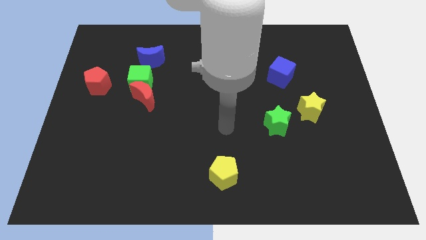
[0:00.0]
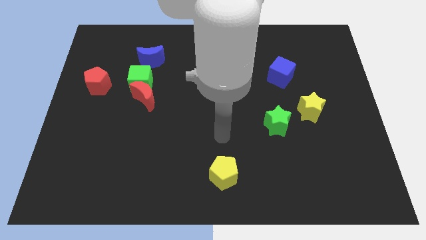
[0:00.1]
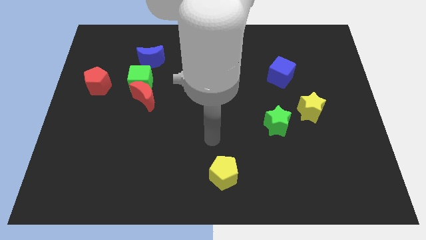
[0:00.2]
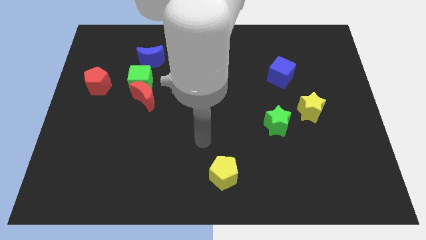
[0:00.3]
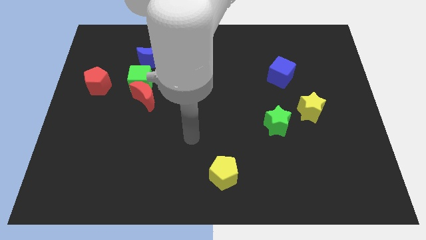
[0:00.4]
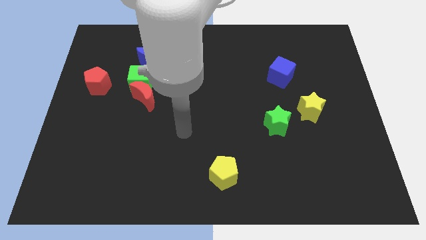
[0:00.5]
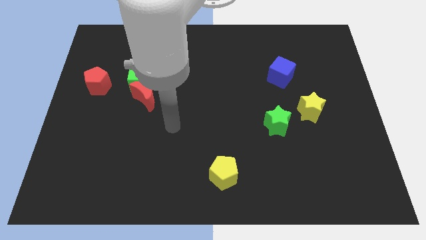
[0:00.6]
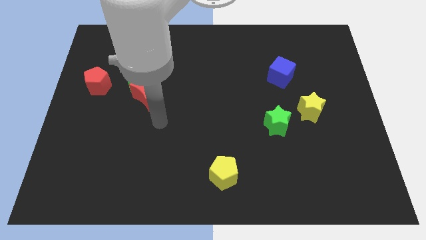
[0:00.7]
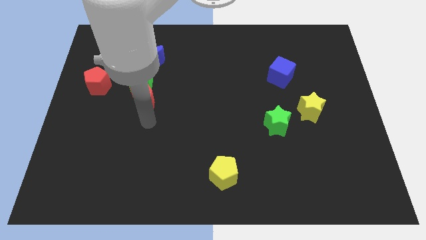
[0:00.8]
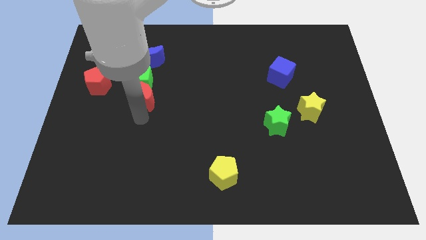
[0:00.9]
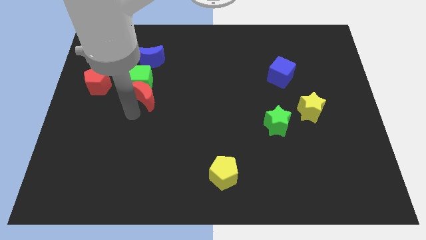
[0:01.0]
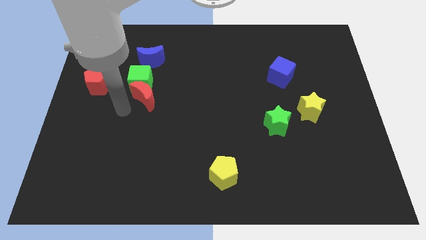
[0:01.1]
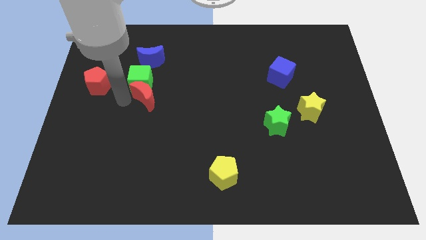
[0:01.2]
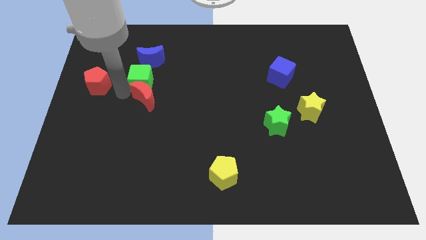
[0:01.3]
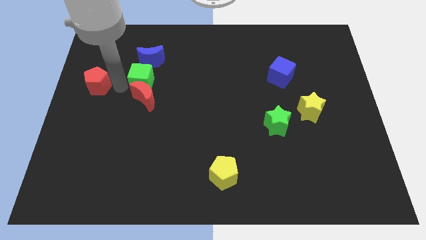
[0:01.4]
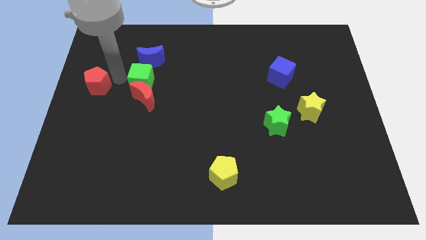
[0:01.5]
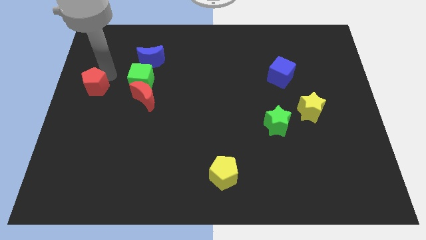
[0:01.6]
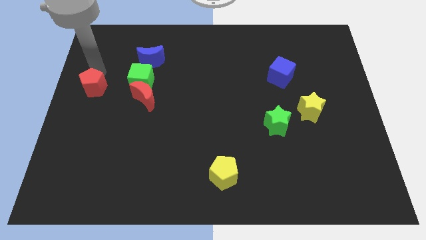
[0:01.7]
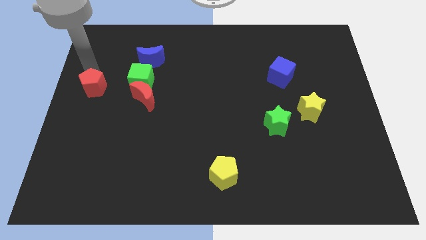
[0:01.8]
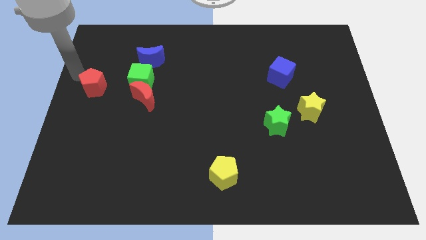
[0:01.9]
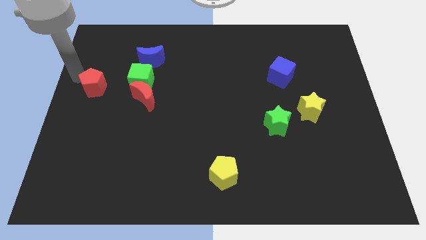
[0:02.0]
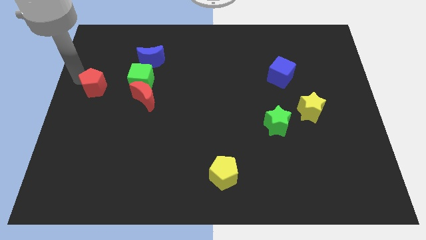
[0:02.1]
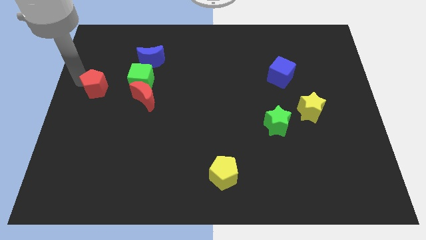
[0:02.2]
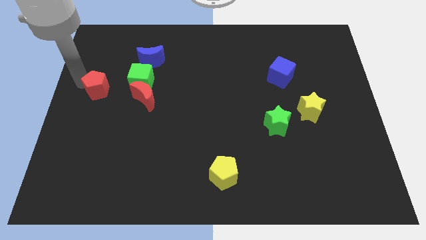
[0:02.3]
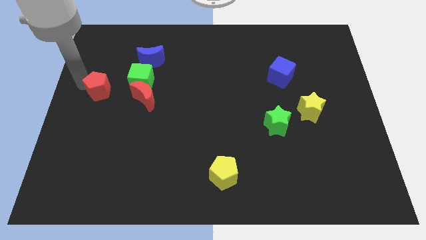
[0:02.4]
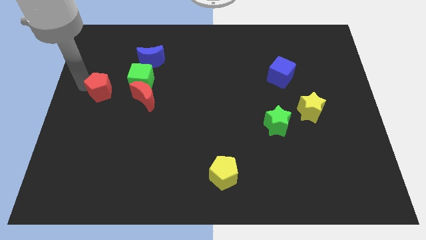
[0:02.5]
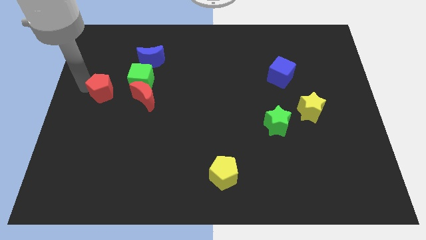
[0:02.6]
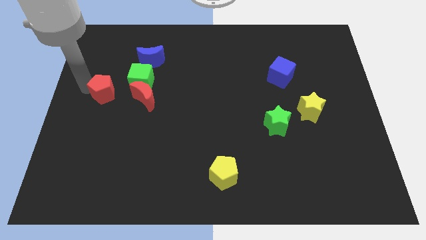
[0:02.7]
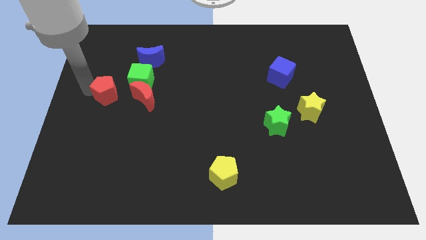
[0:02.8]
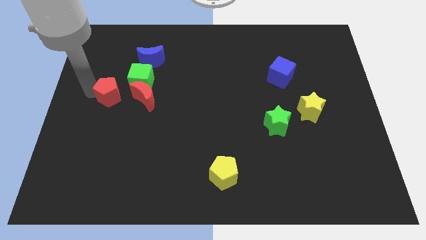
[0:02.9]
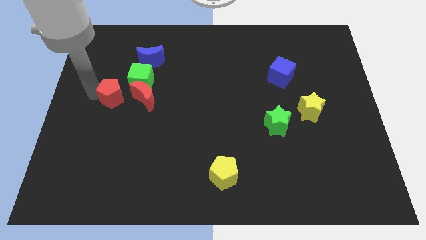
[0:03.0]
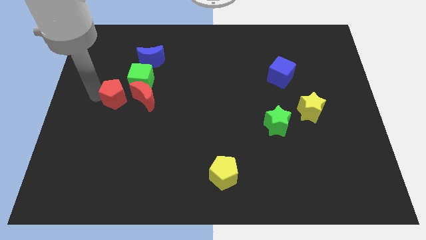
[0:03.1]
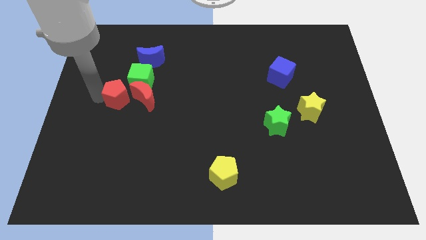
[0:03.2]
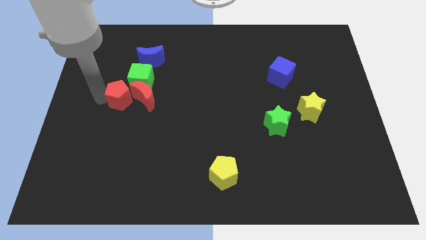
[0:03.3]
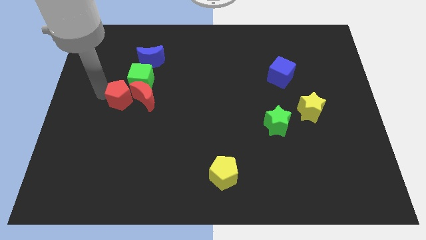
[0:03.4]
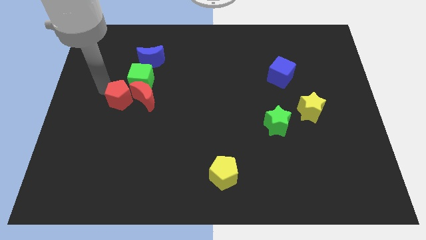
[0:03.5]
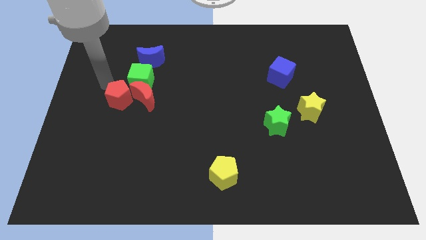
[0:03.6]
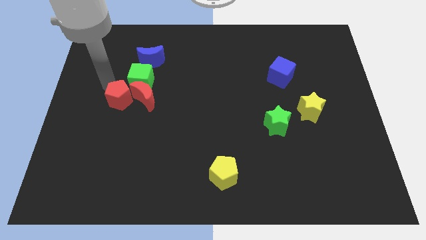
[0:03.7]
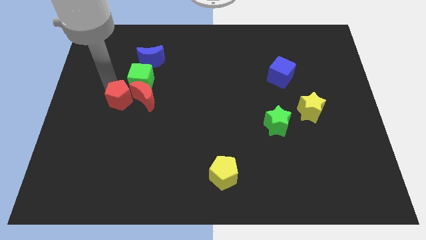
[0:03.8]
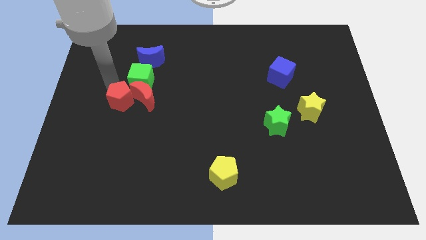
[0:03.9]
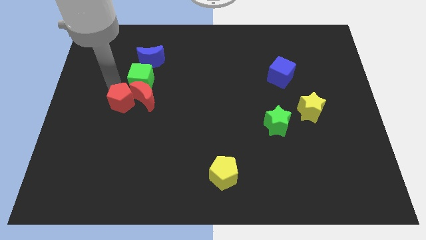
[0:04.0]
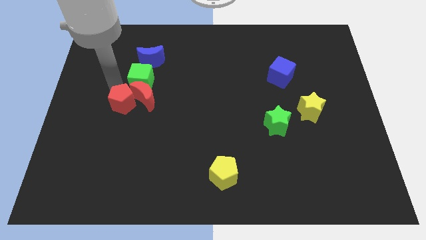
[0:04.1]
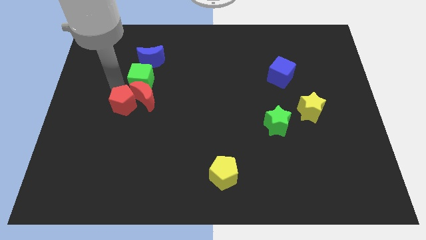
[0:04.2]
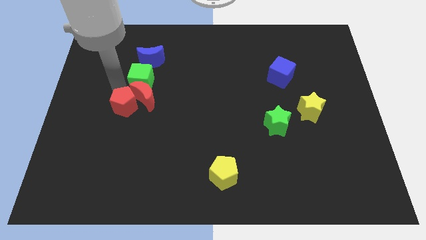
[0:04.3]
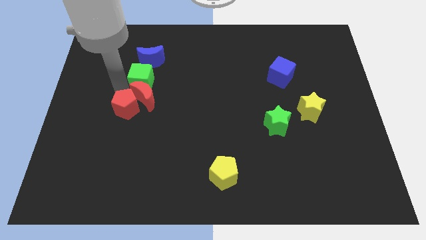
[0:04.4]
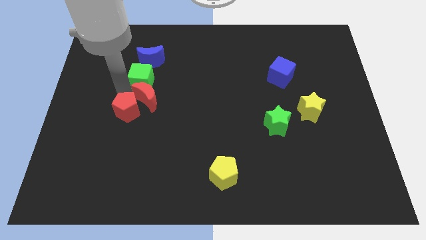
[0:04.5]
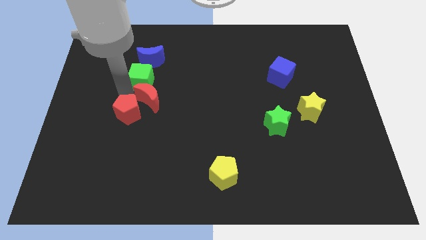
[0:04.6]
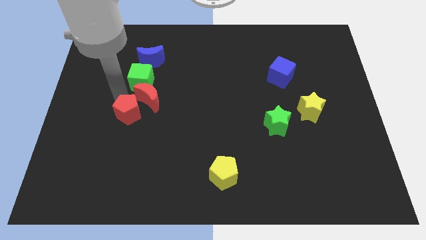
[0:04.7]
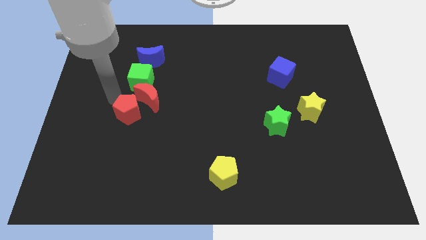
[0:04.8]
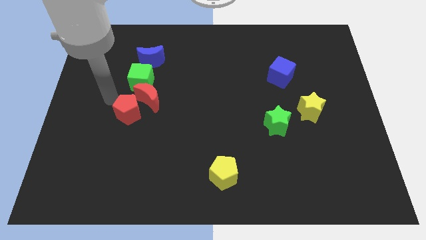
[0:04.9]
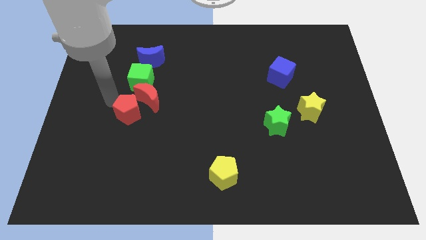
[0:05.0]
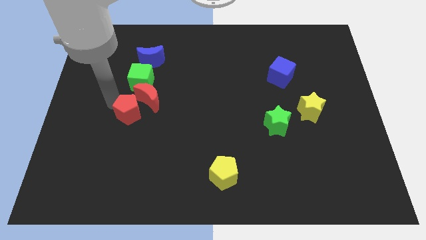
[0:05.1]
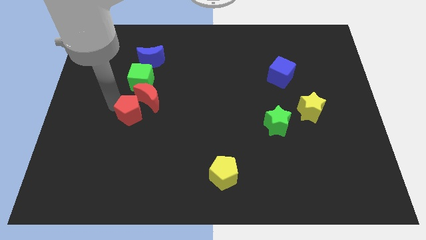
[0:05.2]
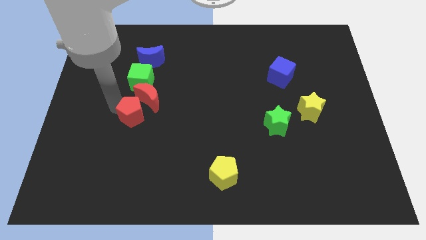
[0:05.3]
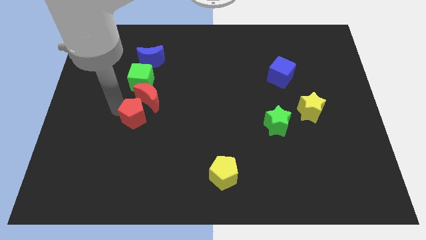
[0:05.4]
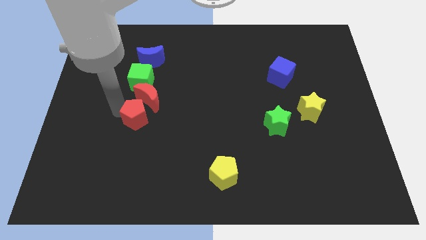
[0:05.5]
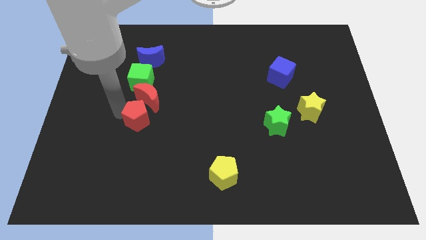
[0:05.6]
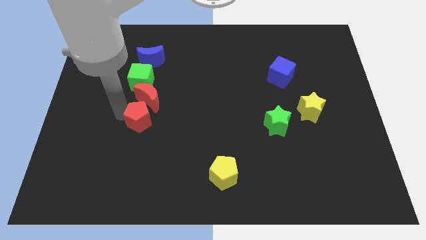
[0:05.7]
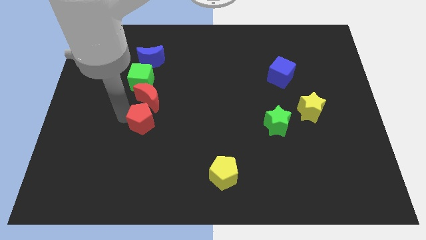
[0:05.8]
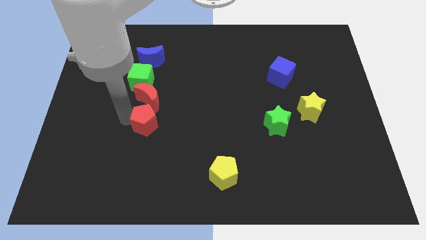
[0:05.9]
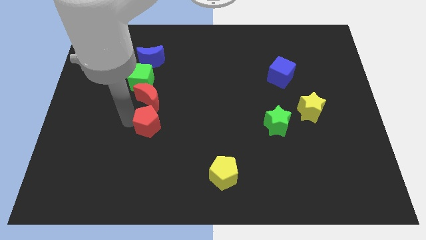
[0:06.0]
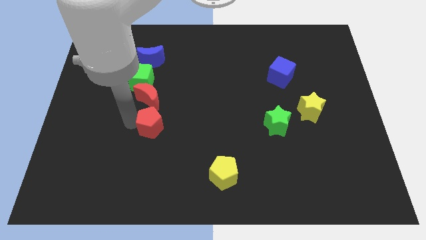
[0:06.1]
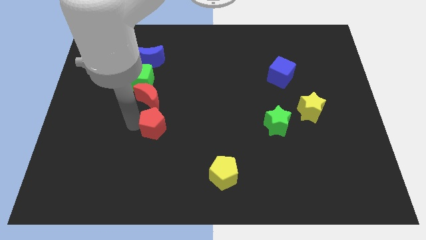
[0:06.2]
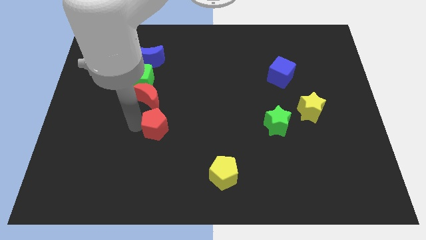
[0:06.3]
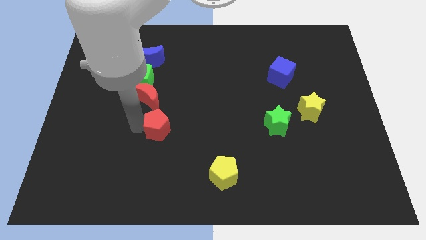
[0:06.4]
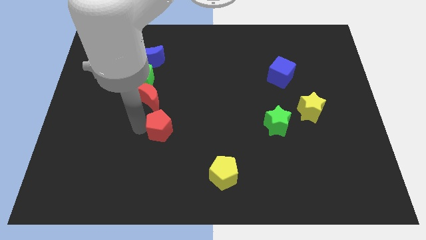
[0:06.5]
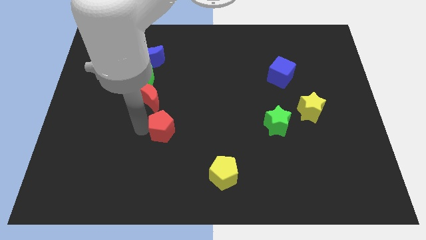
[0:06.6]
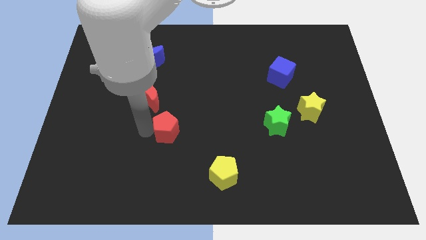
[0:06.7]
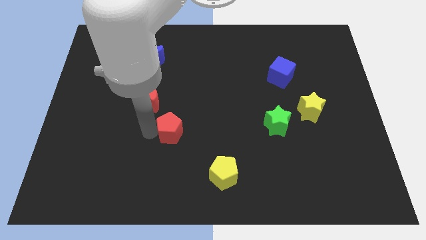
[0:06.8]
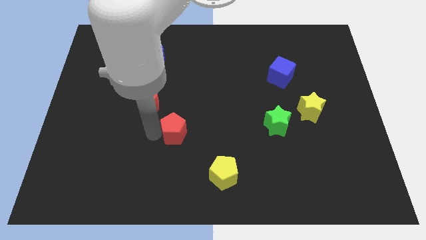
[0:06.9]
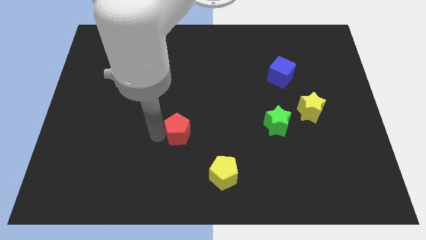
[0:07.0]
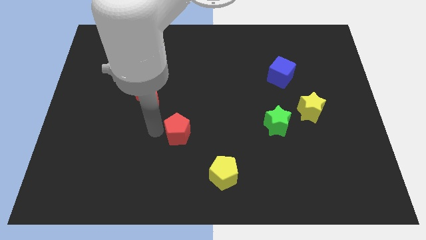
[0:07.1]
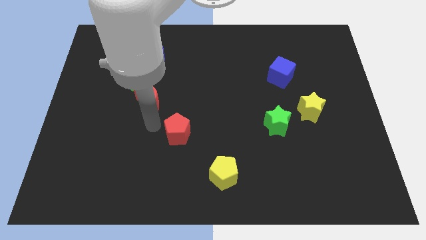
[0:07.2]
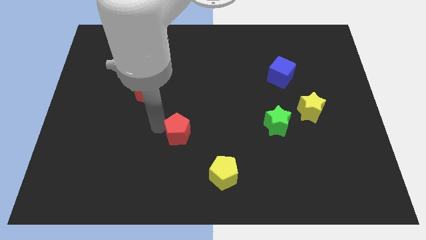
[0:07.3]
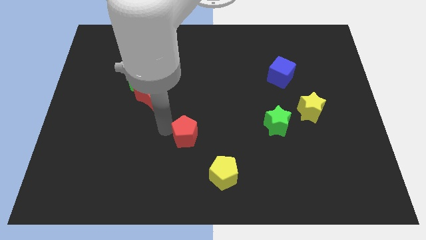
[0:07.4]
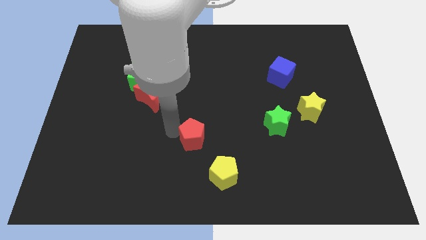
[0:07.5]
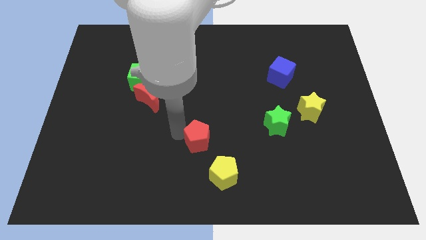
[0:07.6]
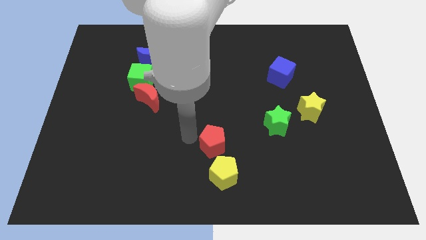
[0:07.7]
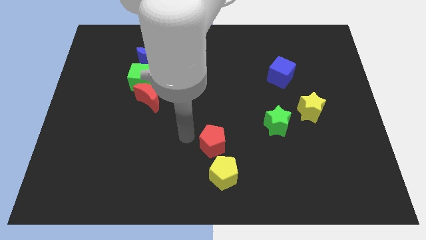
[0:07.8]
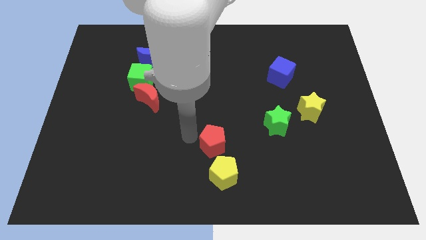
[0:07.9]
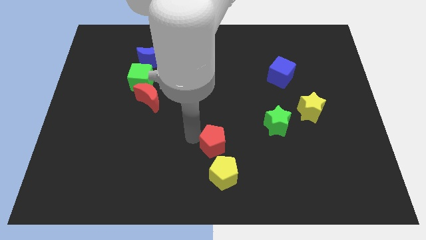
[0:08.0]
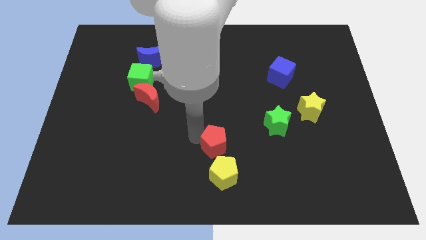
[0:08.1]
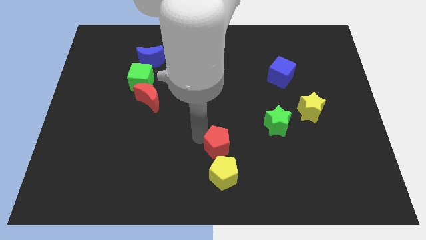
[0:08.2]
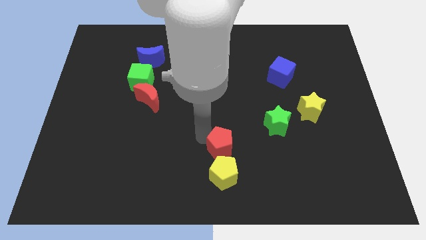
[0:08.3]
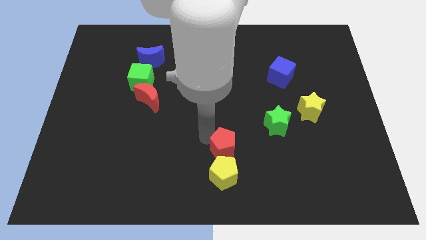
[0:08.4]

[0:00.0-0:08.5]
move the red pentagon to the top right side of the yellow pentagon
